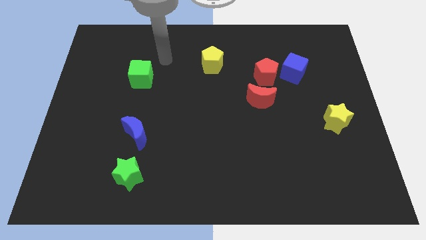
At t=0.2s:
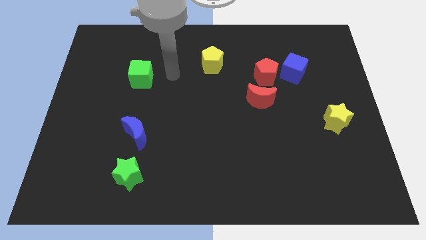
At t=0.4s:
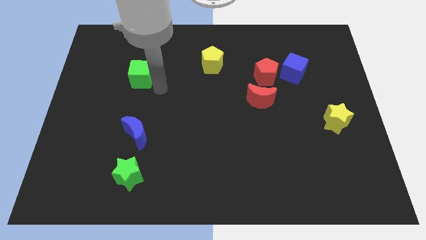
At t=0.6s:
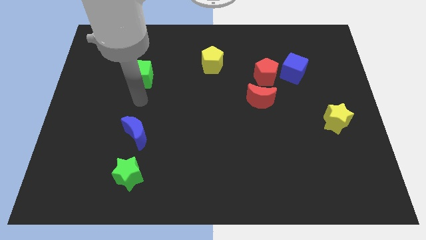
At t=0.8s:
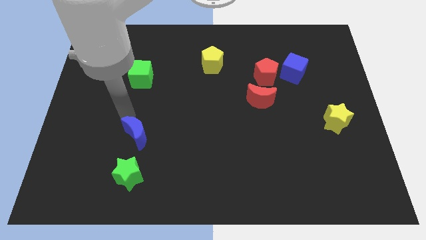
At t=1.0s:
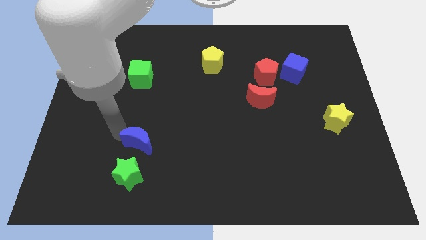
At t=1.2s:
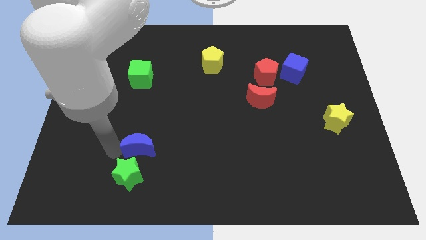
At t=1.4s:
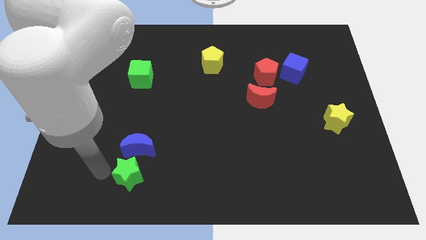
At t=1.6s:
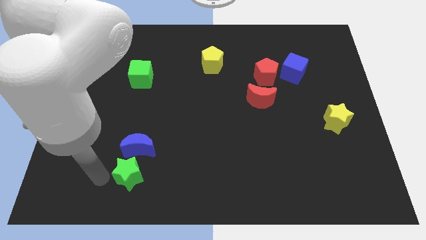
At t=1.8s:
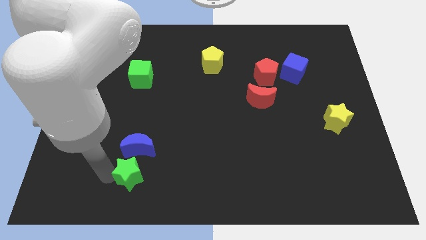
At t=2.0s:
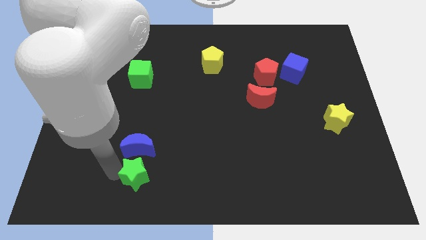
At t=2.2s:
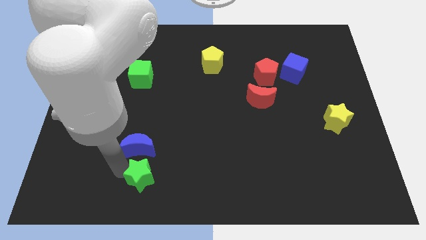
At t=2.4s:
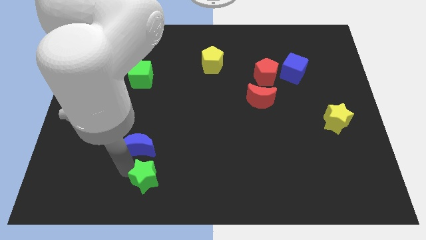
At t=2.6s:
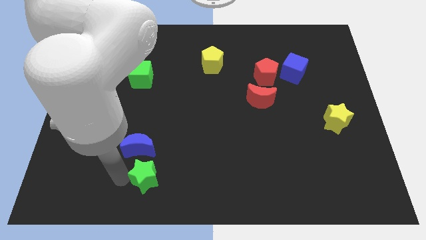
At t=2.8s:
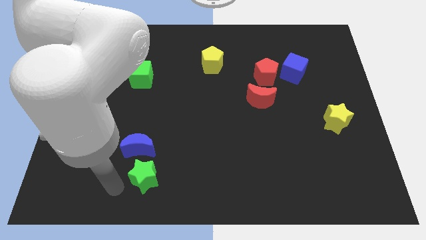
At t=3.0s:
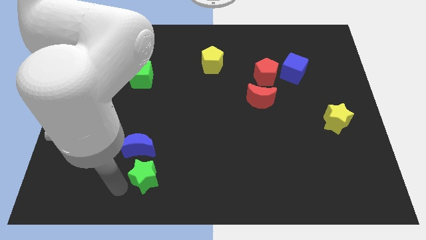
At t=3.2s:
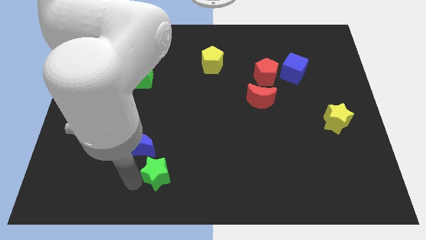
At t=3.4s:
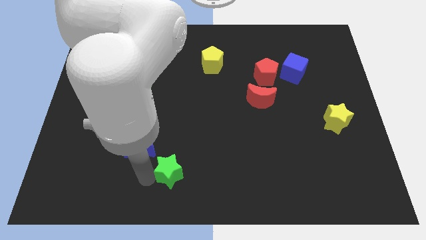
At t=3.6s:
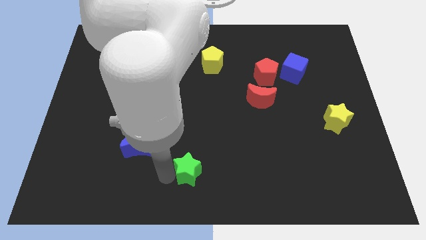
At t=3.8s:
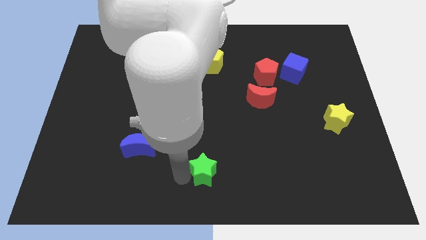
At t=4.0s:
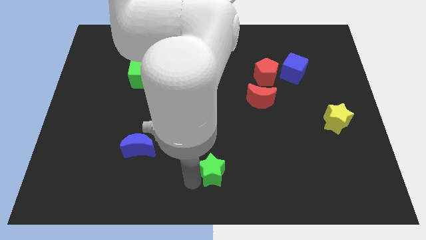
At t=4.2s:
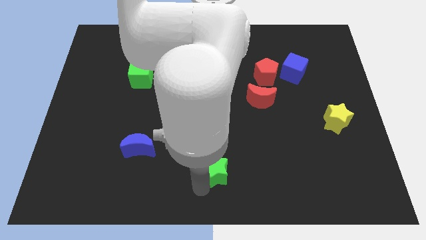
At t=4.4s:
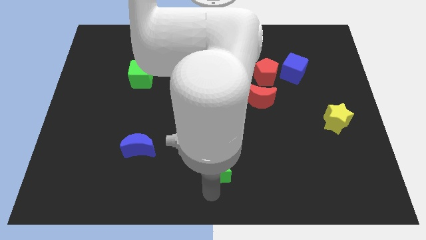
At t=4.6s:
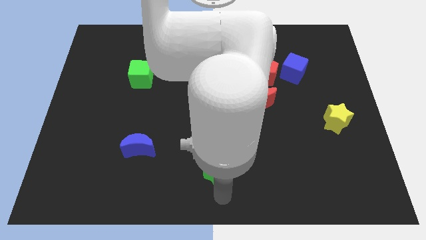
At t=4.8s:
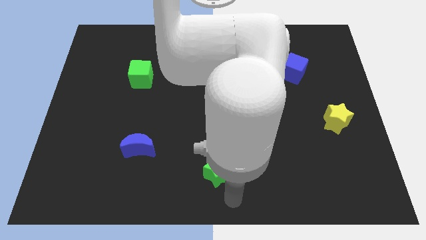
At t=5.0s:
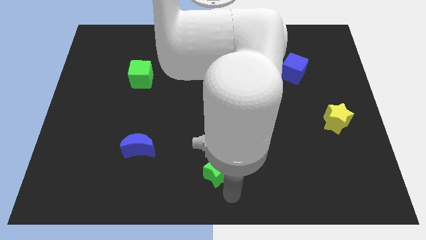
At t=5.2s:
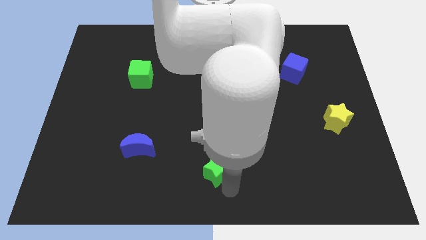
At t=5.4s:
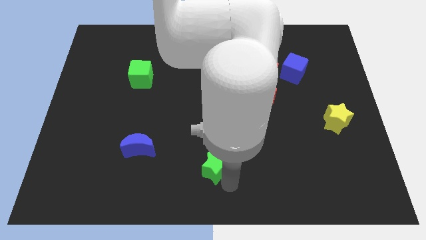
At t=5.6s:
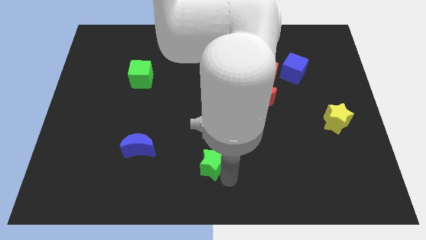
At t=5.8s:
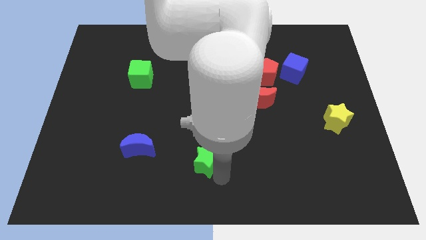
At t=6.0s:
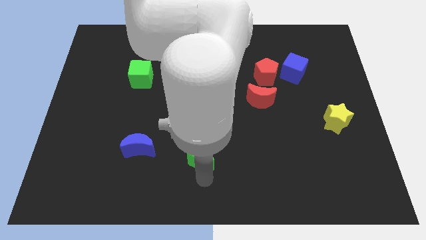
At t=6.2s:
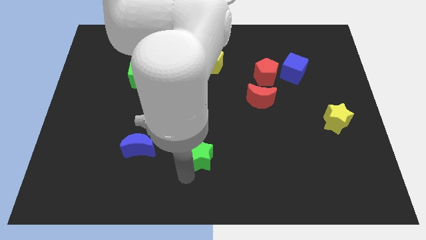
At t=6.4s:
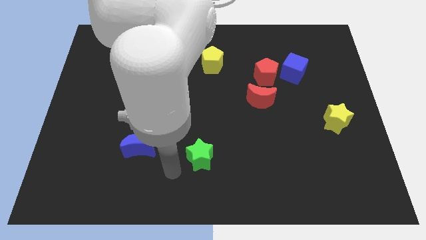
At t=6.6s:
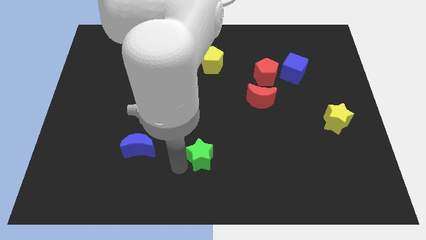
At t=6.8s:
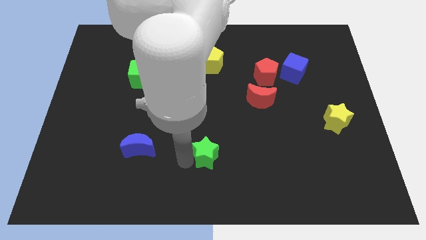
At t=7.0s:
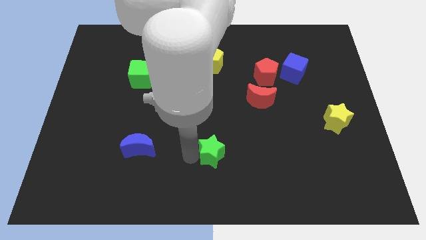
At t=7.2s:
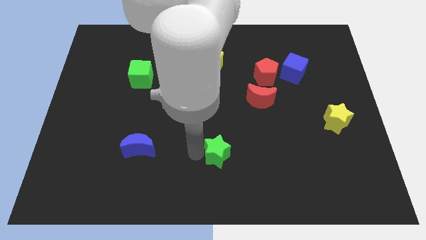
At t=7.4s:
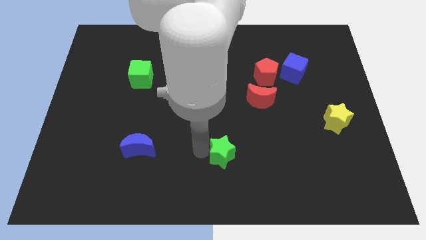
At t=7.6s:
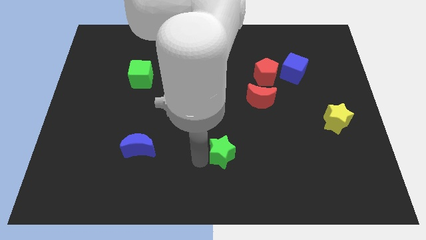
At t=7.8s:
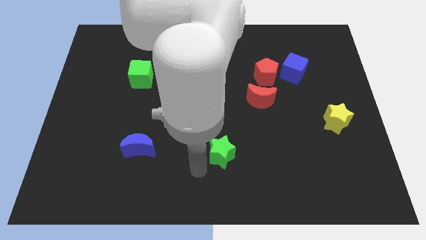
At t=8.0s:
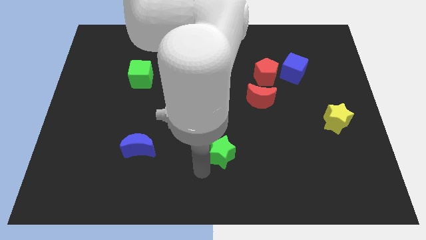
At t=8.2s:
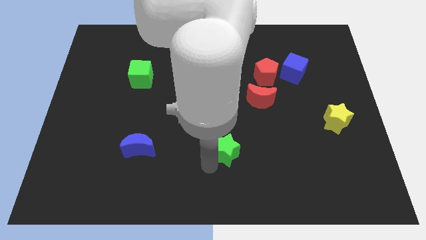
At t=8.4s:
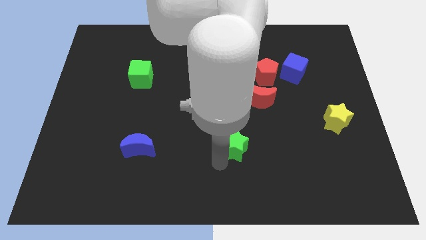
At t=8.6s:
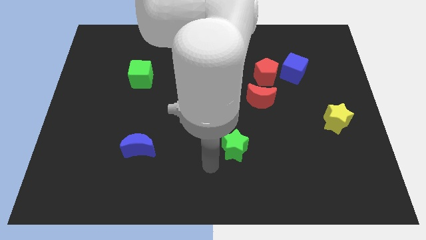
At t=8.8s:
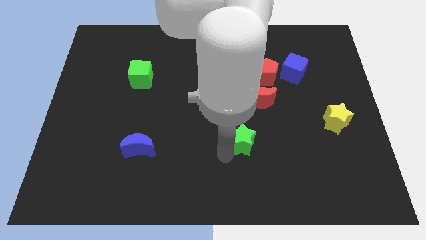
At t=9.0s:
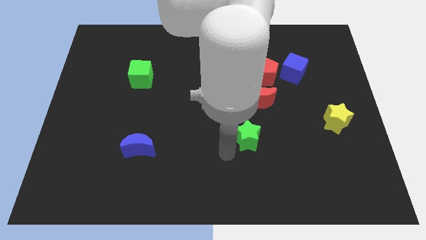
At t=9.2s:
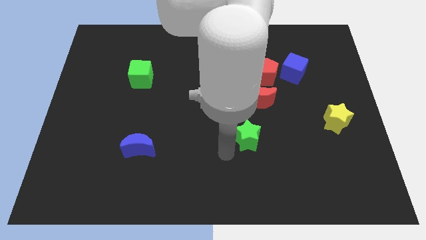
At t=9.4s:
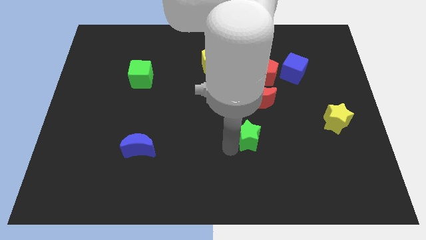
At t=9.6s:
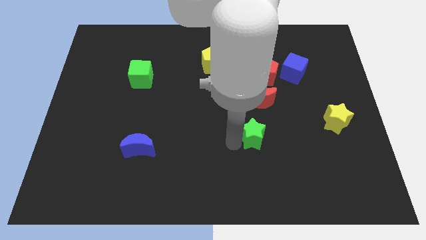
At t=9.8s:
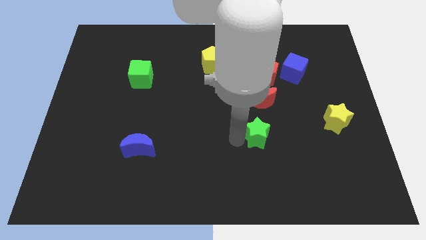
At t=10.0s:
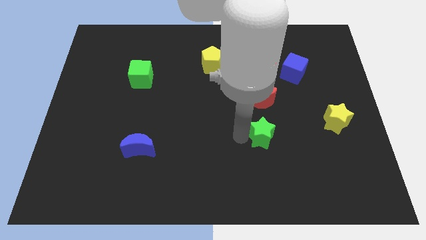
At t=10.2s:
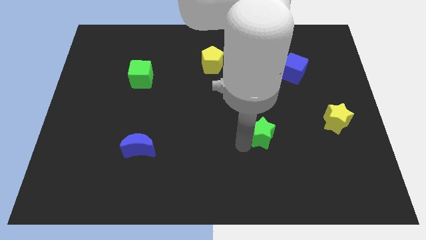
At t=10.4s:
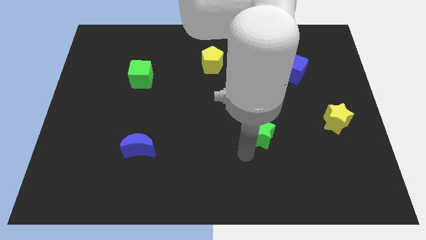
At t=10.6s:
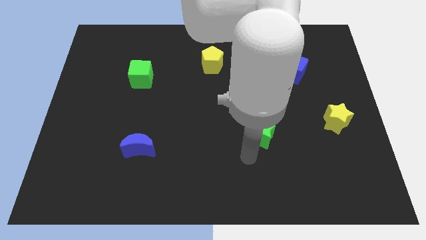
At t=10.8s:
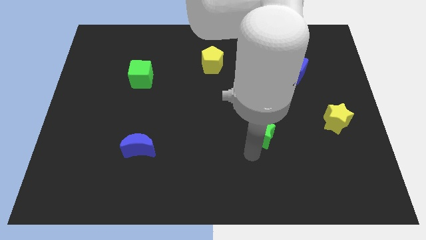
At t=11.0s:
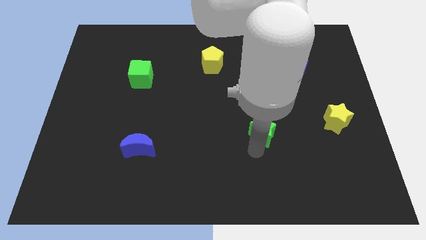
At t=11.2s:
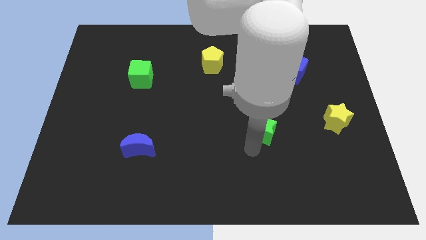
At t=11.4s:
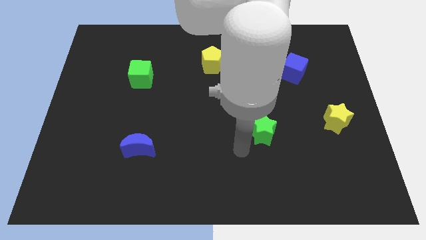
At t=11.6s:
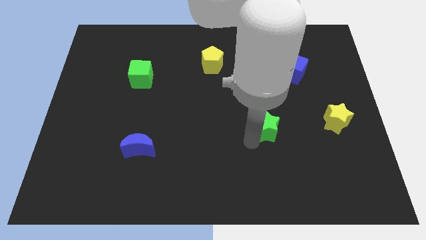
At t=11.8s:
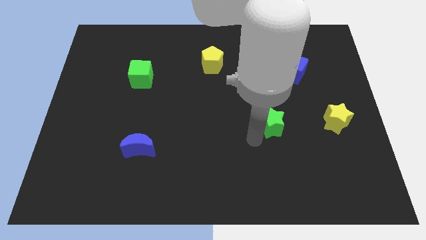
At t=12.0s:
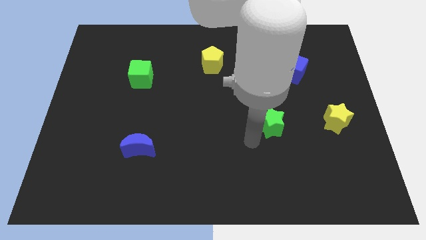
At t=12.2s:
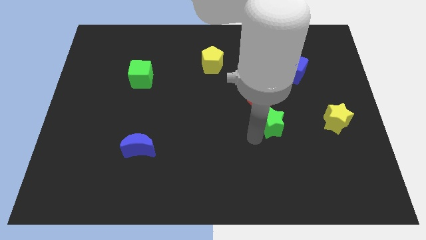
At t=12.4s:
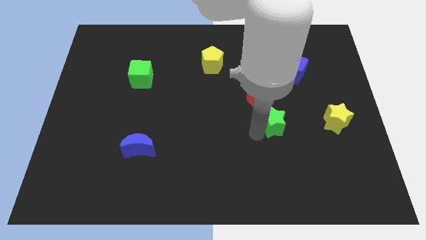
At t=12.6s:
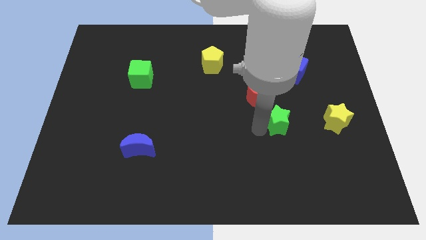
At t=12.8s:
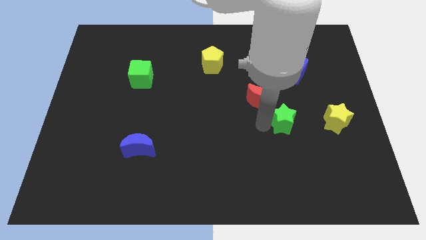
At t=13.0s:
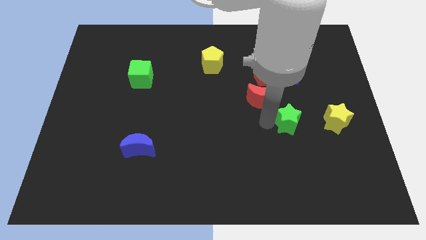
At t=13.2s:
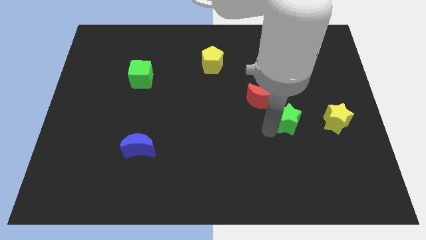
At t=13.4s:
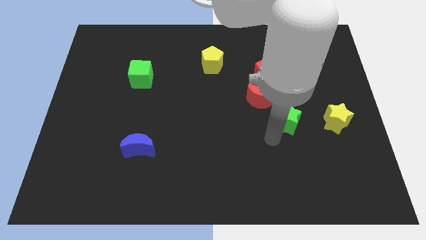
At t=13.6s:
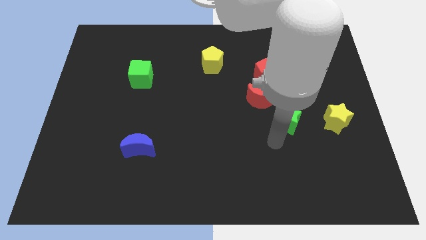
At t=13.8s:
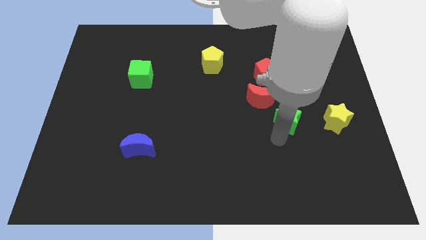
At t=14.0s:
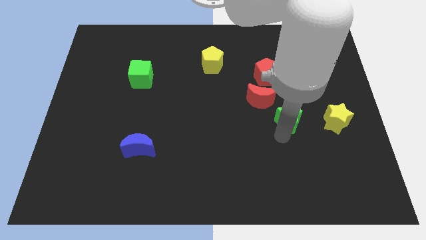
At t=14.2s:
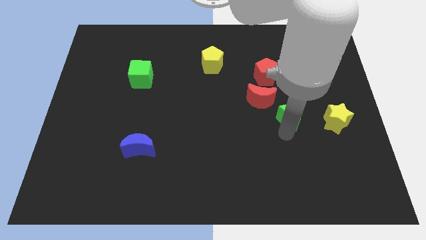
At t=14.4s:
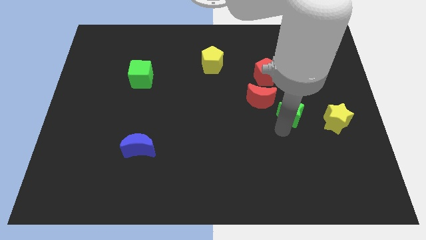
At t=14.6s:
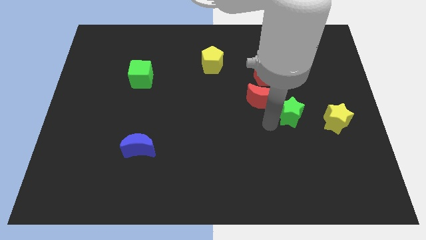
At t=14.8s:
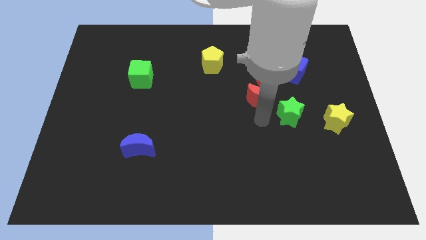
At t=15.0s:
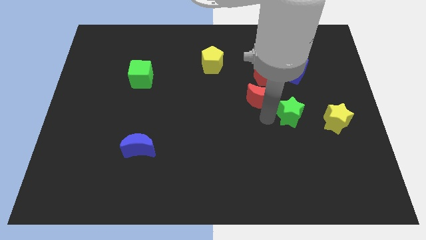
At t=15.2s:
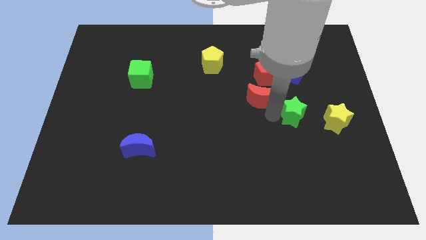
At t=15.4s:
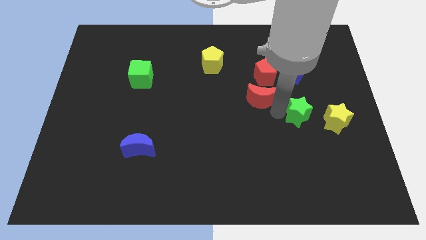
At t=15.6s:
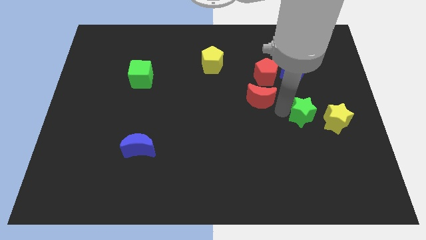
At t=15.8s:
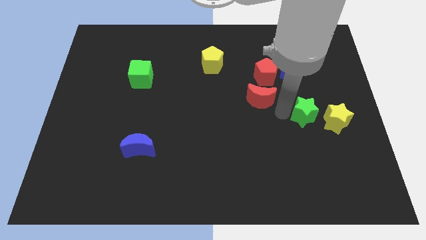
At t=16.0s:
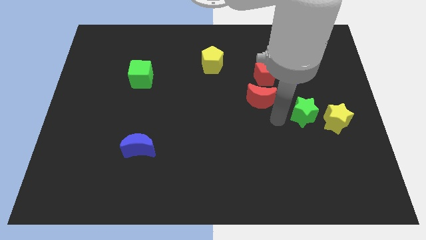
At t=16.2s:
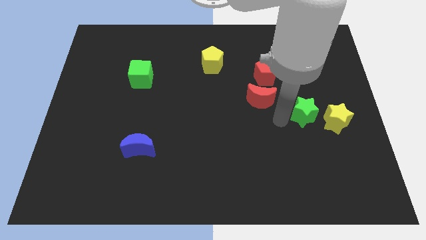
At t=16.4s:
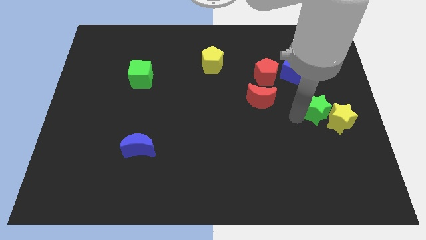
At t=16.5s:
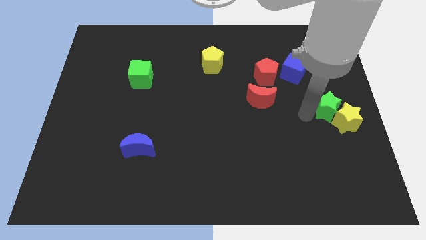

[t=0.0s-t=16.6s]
push the green star to the right side of the board

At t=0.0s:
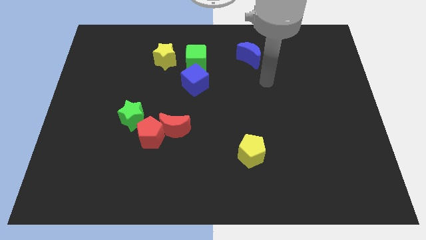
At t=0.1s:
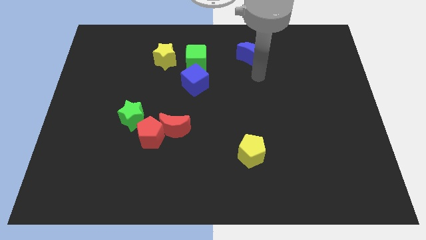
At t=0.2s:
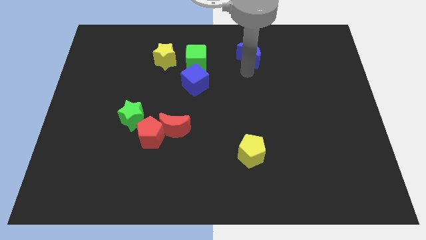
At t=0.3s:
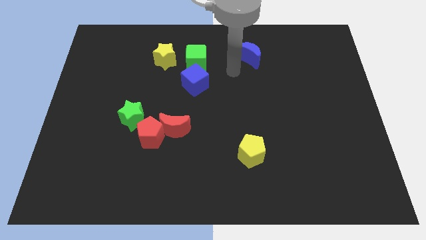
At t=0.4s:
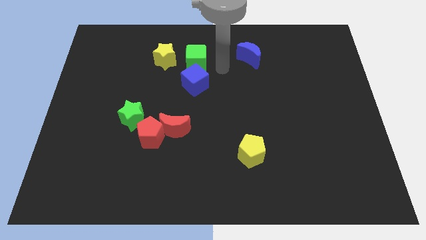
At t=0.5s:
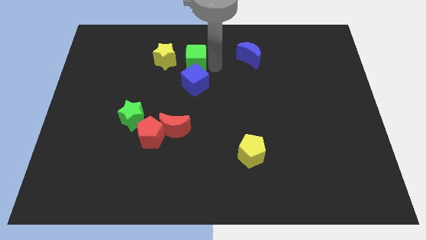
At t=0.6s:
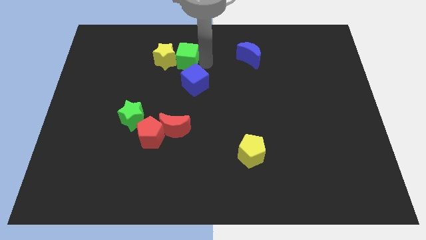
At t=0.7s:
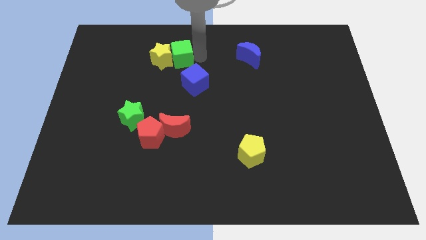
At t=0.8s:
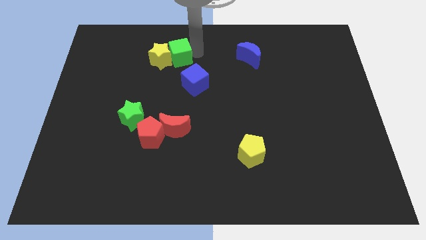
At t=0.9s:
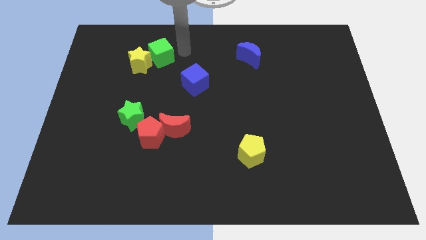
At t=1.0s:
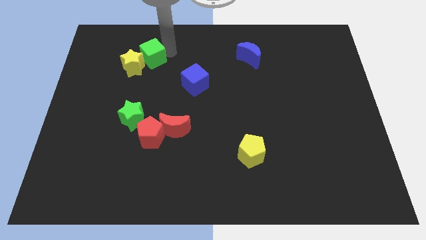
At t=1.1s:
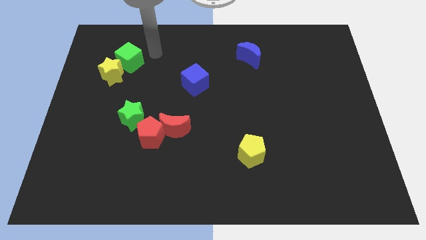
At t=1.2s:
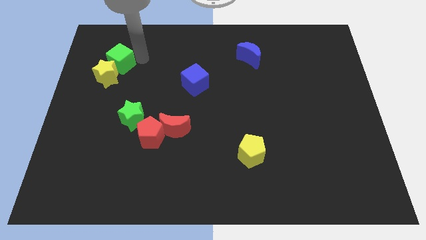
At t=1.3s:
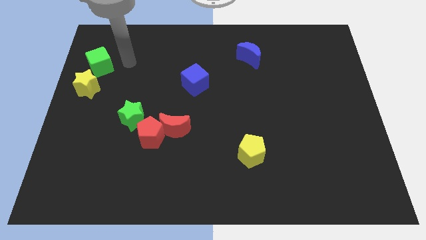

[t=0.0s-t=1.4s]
push the yellow star to the center left
